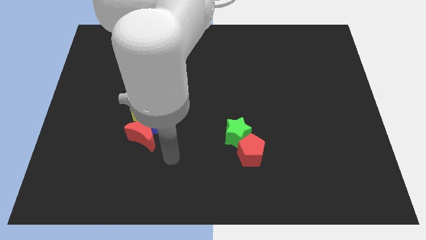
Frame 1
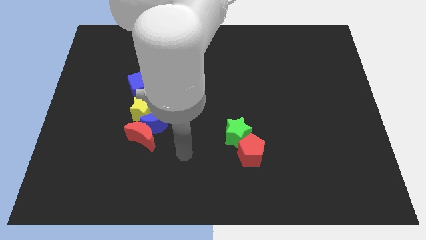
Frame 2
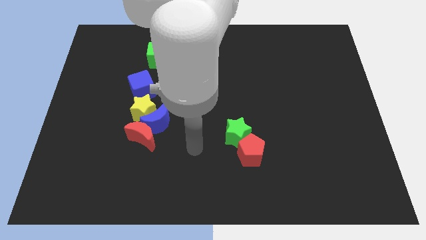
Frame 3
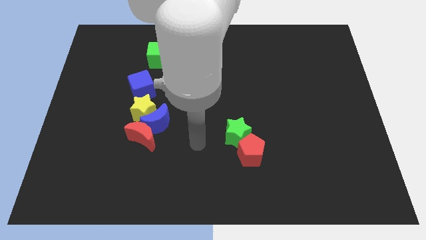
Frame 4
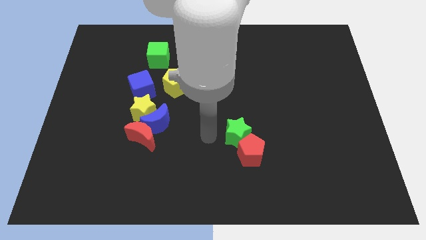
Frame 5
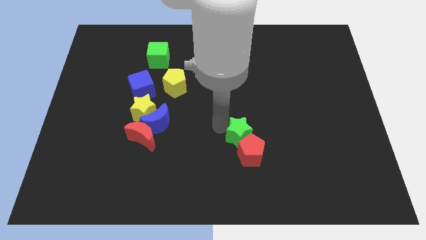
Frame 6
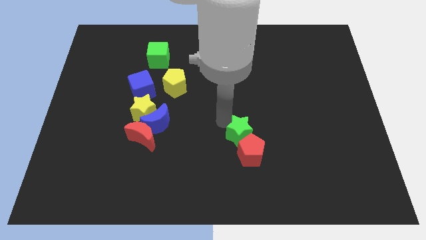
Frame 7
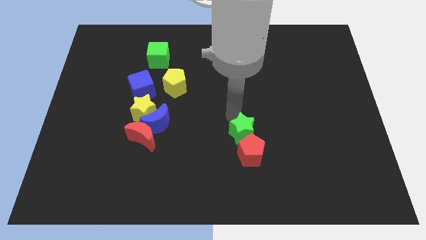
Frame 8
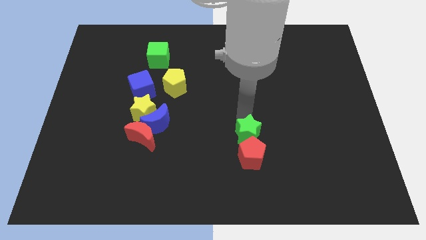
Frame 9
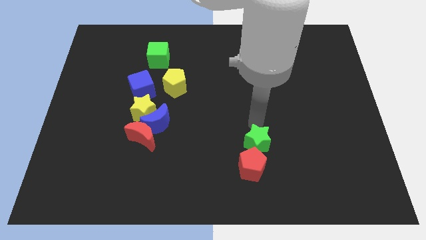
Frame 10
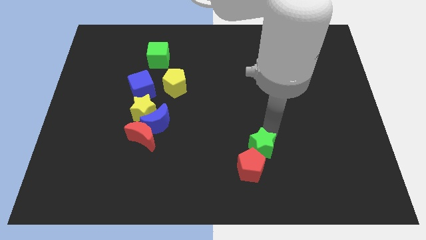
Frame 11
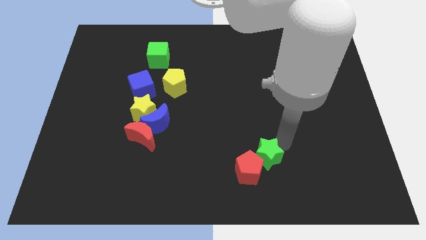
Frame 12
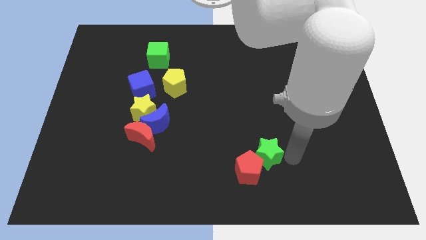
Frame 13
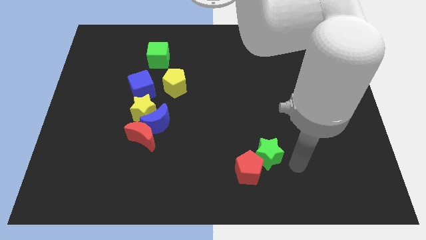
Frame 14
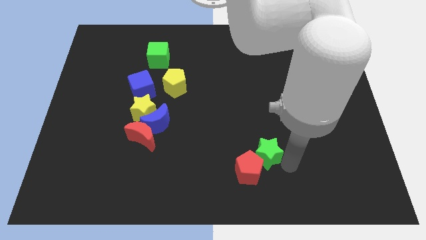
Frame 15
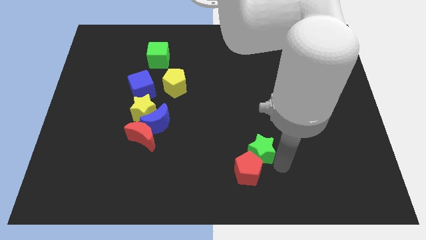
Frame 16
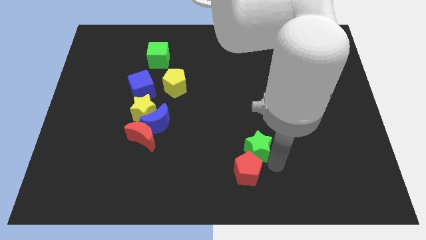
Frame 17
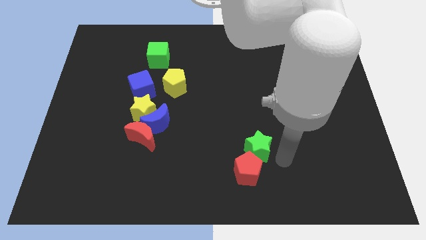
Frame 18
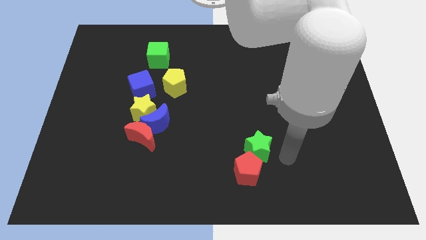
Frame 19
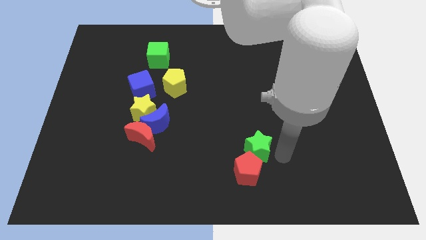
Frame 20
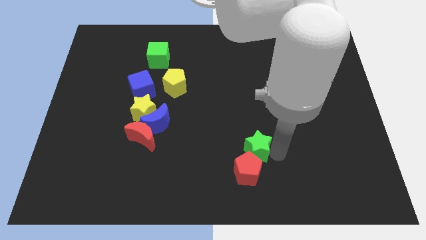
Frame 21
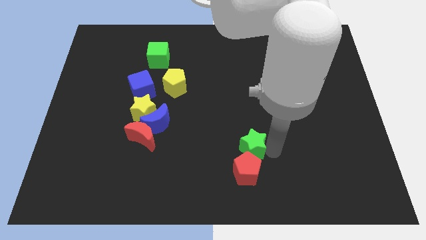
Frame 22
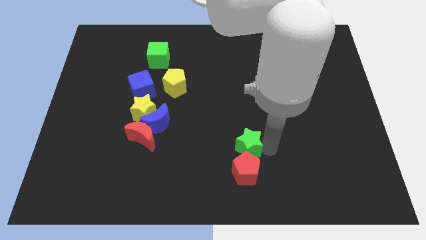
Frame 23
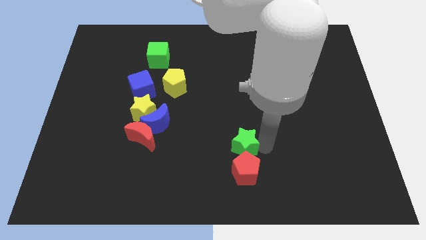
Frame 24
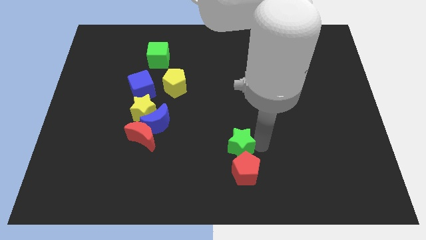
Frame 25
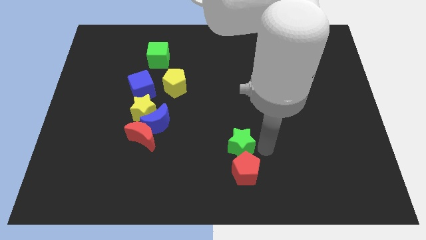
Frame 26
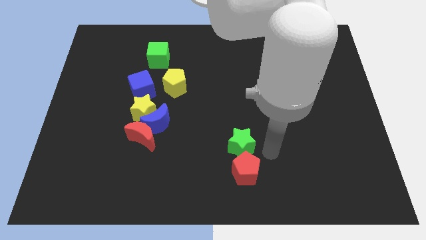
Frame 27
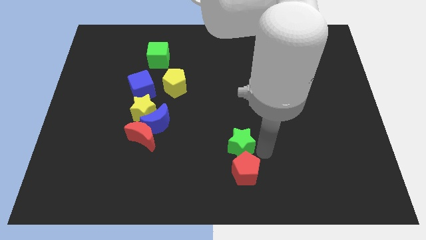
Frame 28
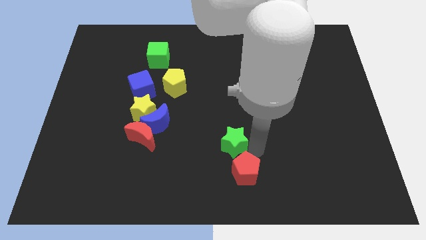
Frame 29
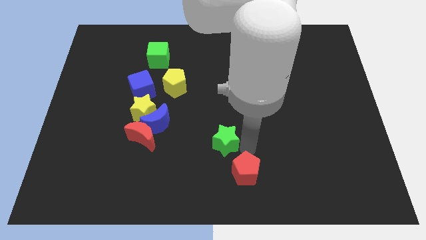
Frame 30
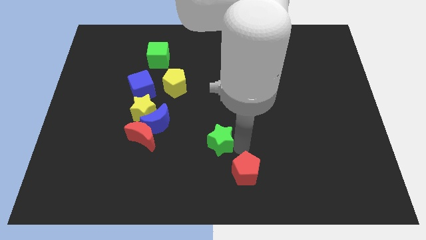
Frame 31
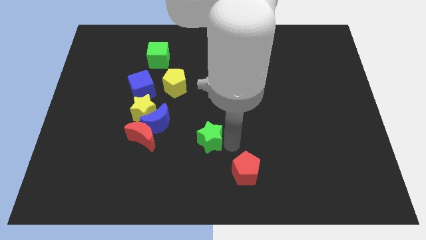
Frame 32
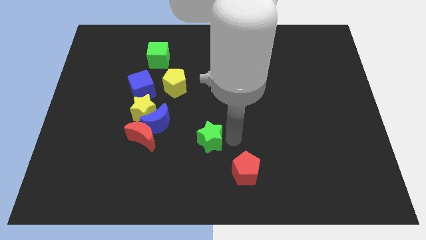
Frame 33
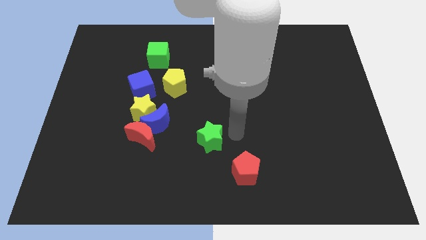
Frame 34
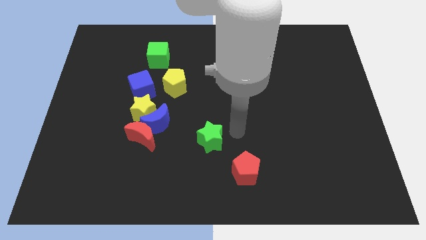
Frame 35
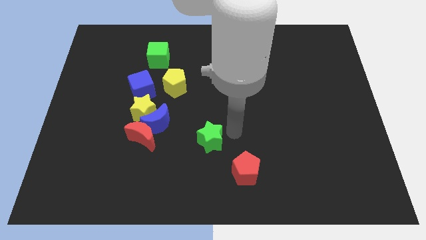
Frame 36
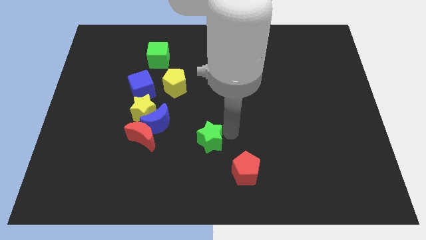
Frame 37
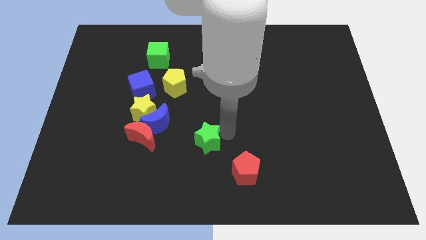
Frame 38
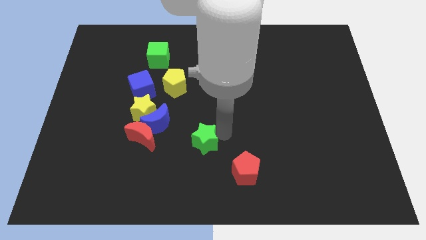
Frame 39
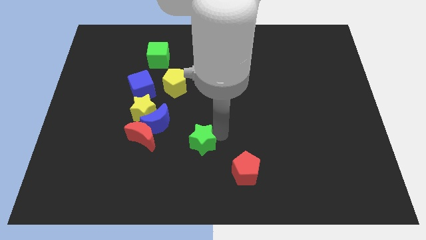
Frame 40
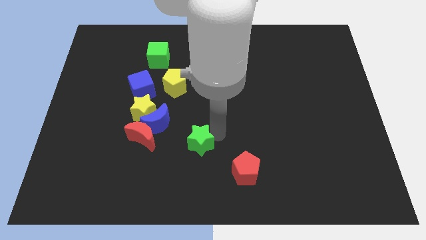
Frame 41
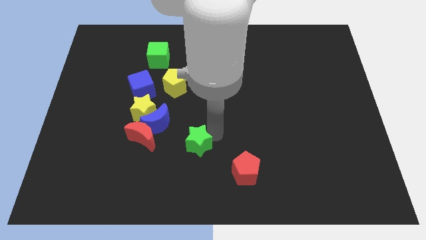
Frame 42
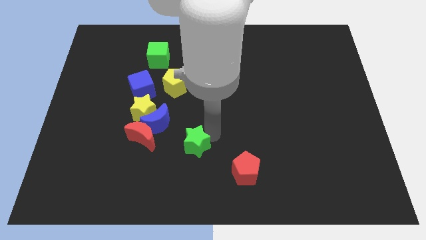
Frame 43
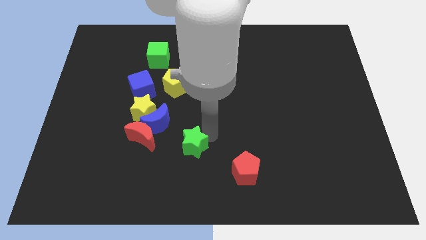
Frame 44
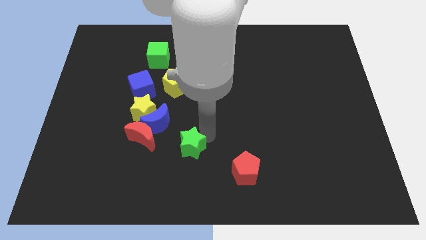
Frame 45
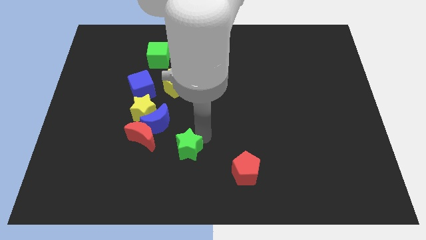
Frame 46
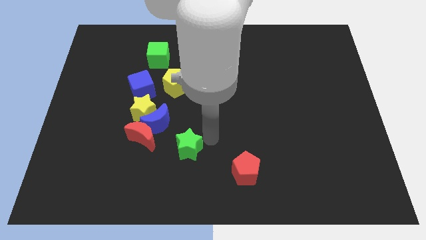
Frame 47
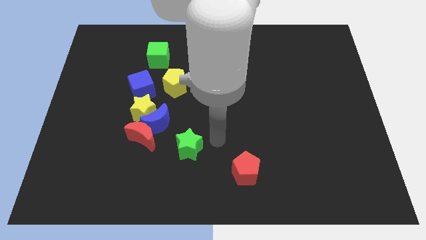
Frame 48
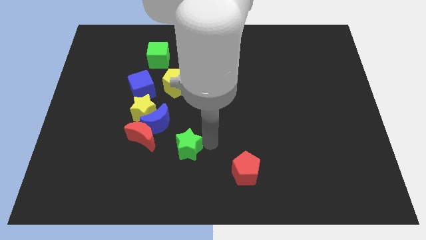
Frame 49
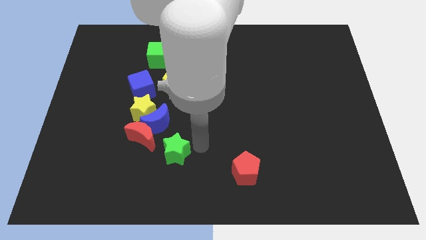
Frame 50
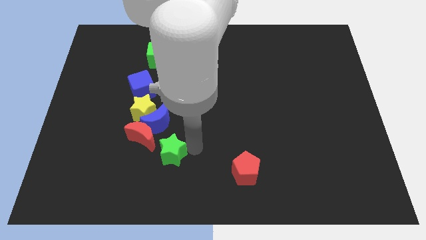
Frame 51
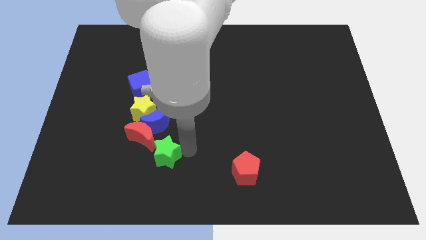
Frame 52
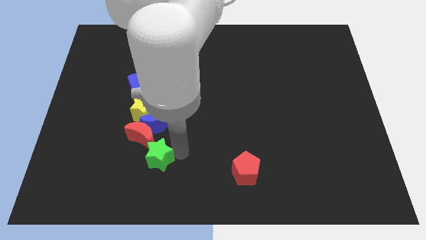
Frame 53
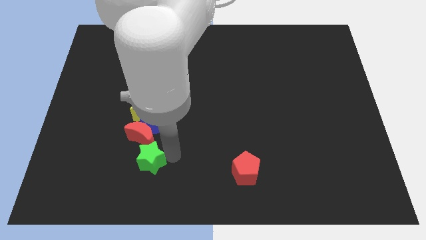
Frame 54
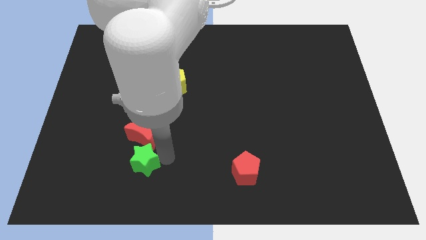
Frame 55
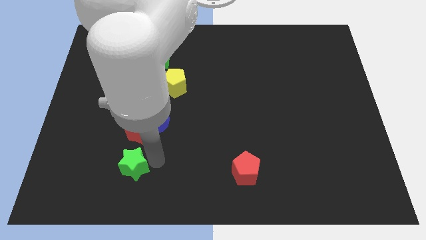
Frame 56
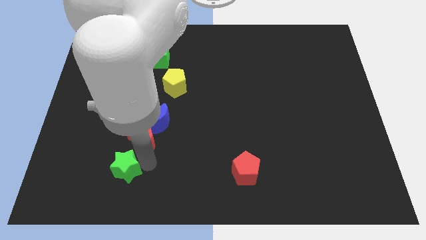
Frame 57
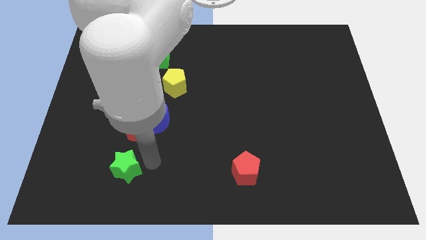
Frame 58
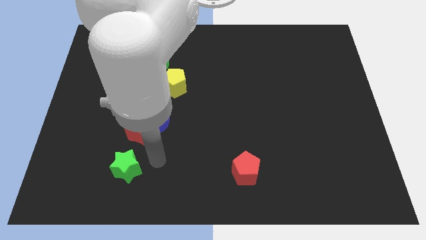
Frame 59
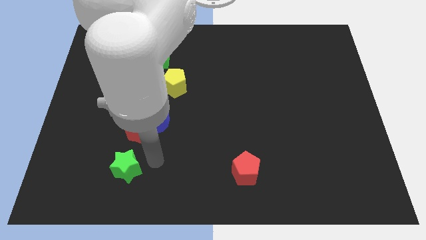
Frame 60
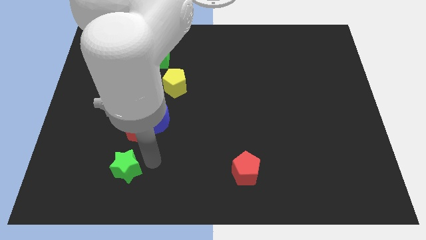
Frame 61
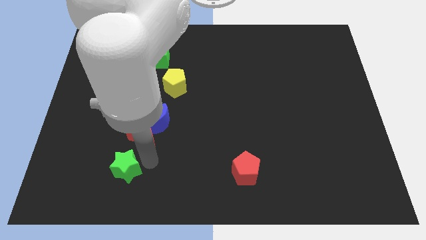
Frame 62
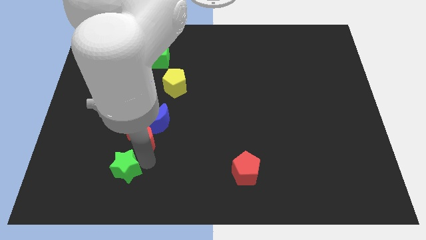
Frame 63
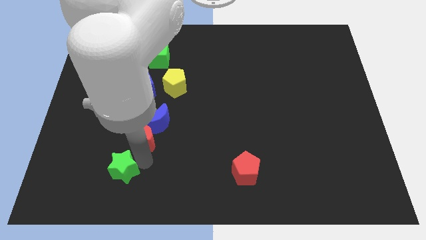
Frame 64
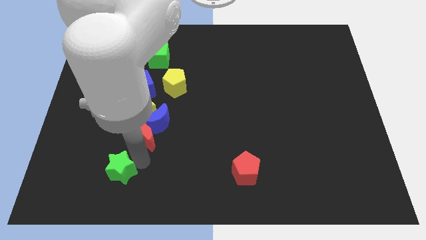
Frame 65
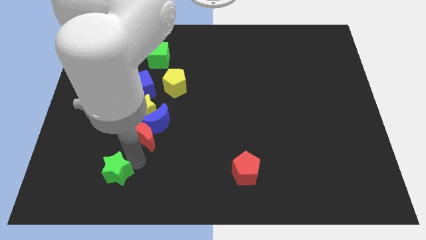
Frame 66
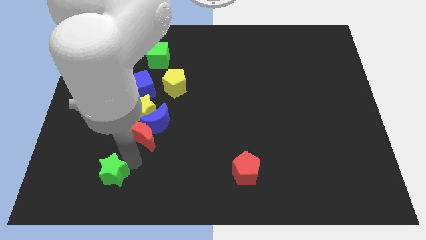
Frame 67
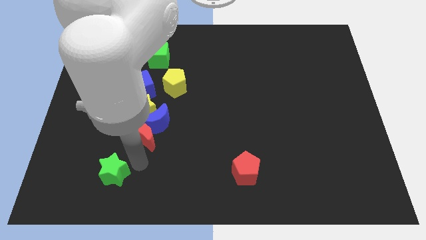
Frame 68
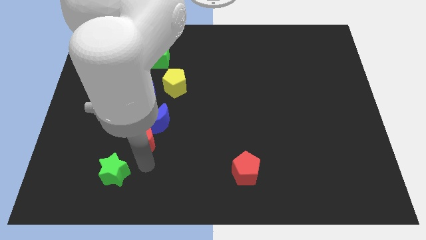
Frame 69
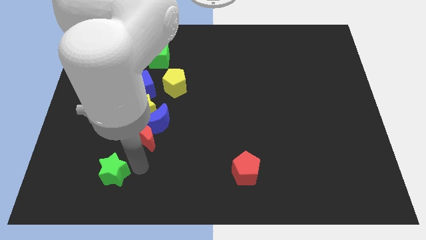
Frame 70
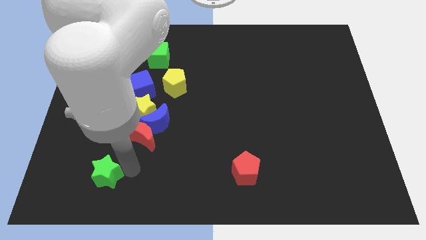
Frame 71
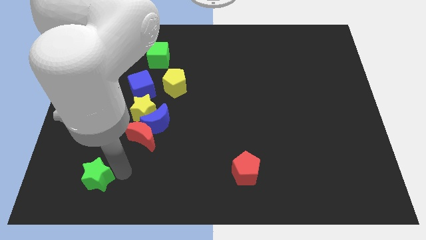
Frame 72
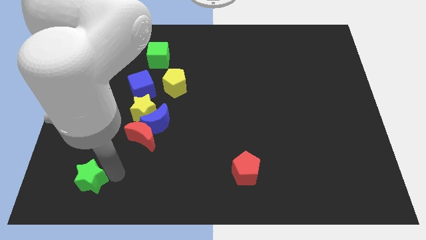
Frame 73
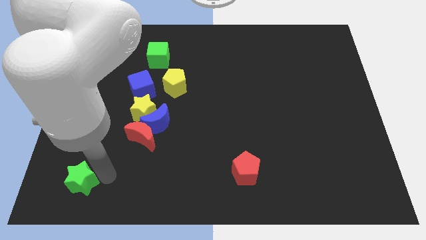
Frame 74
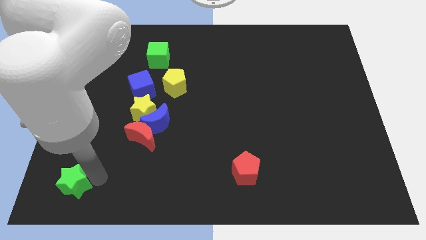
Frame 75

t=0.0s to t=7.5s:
move the green star to the bottom left of the board
